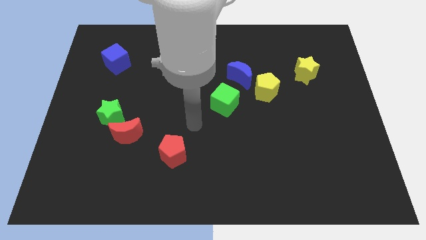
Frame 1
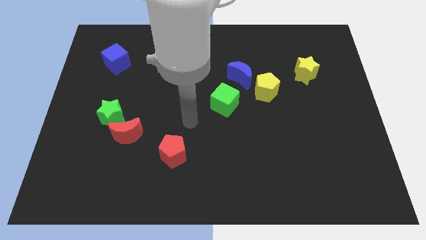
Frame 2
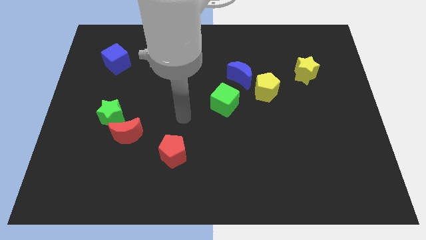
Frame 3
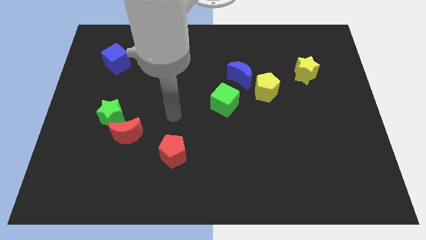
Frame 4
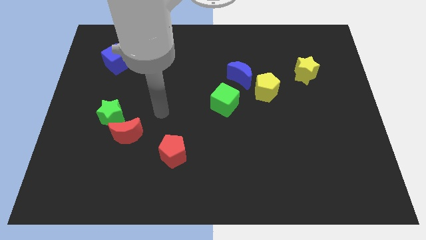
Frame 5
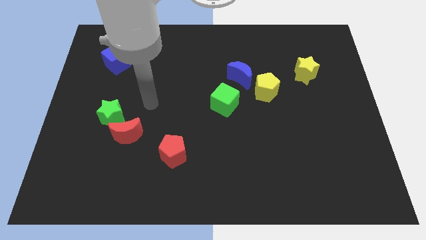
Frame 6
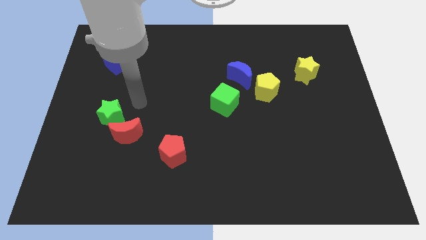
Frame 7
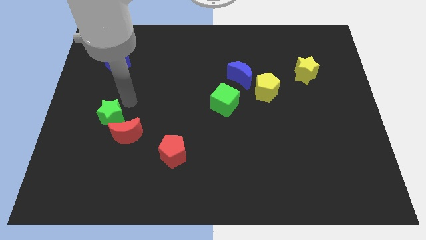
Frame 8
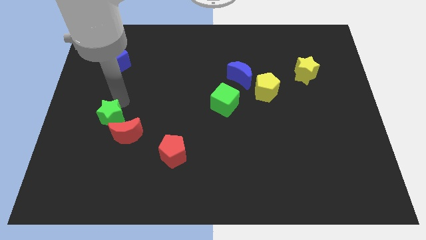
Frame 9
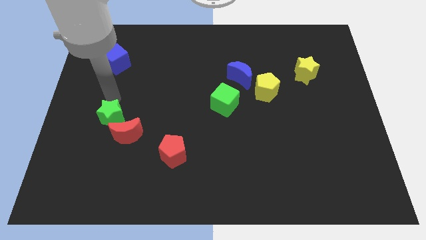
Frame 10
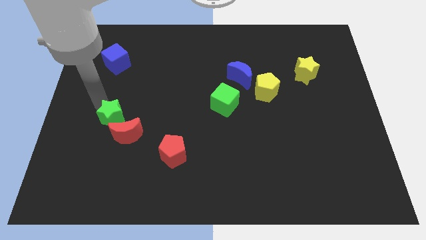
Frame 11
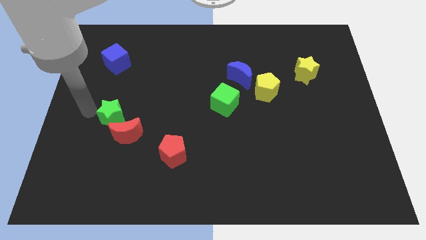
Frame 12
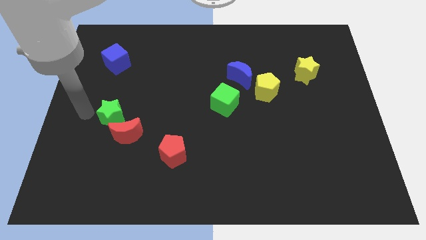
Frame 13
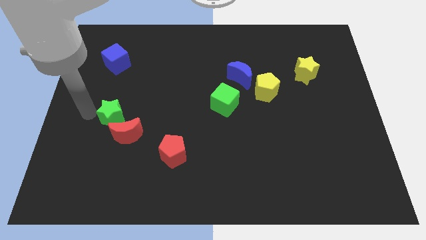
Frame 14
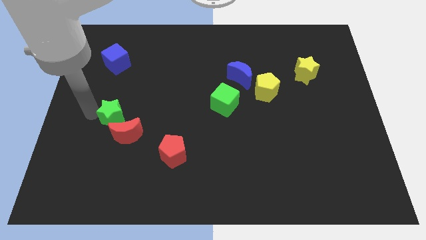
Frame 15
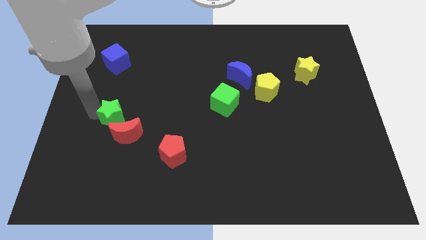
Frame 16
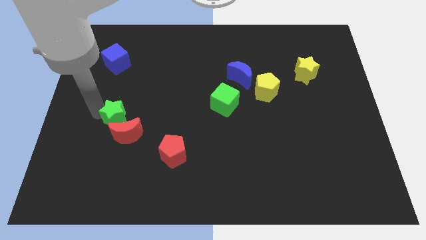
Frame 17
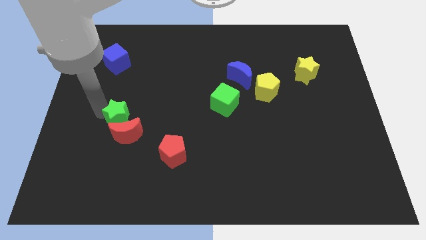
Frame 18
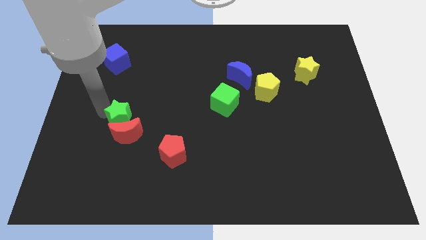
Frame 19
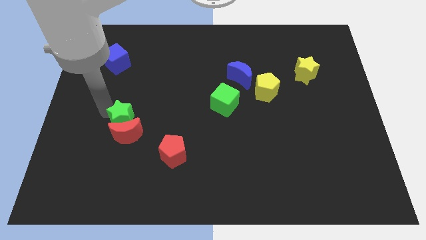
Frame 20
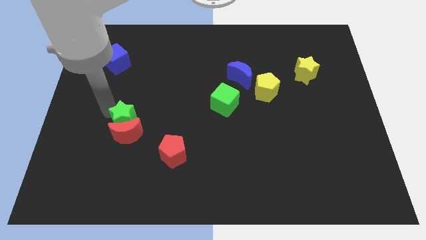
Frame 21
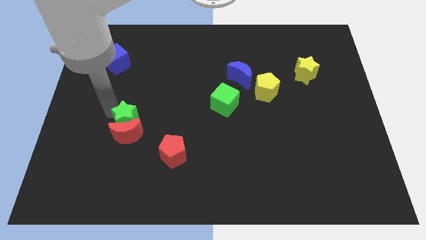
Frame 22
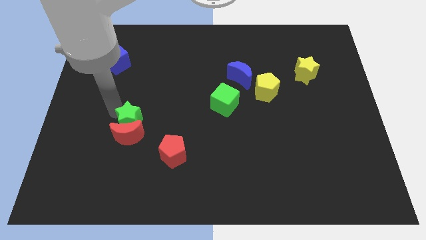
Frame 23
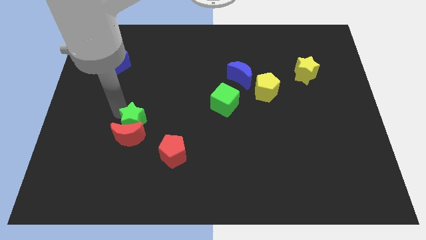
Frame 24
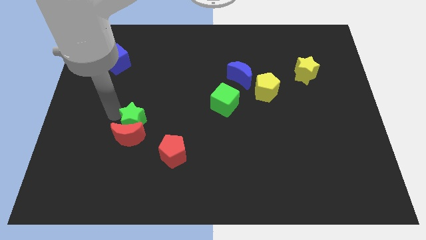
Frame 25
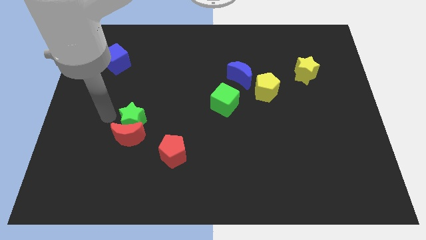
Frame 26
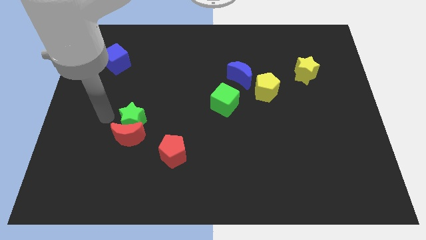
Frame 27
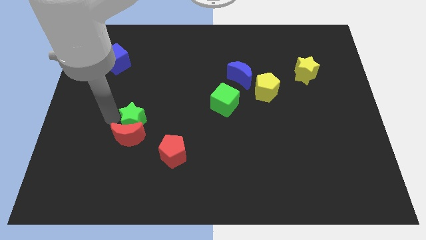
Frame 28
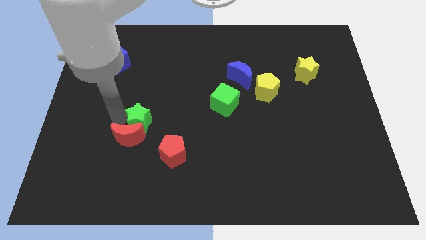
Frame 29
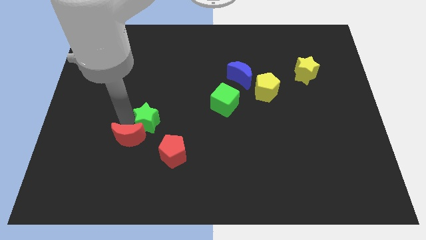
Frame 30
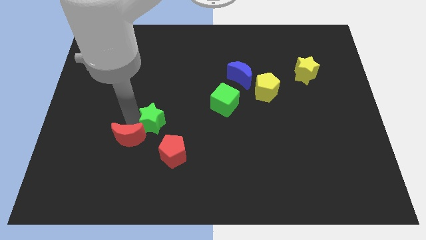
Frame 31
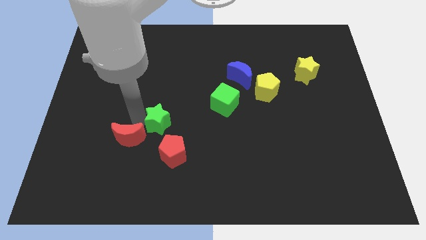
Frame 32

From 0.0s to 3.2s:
slightly slide the green star downwards and right

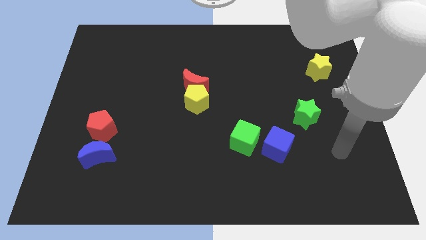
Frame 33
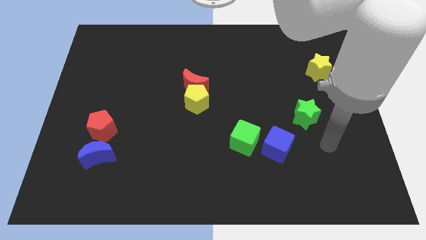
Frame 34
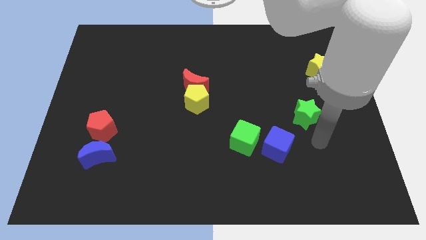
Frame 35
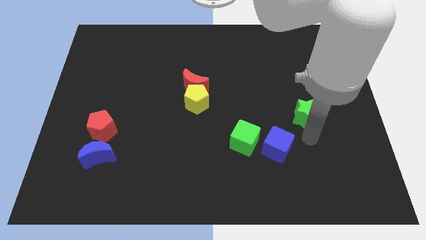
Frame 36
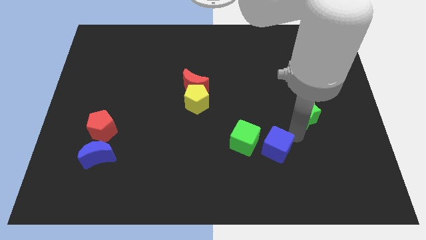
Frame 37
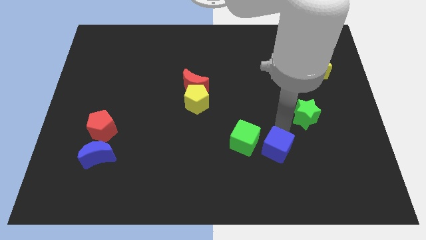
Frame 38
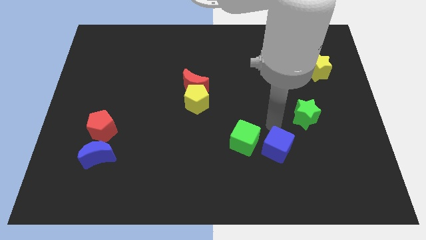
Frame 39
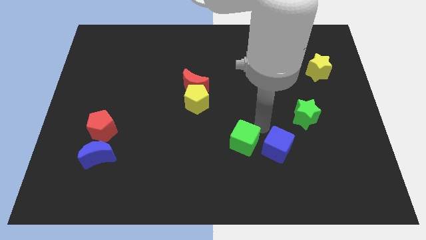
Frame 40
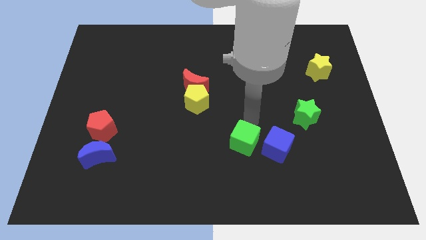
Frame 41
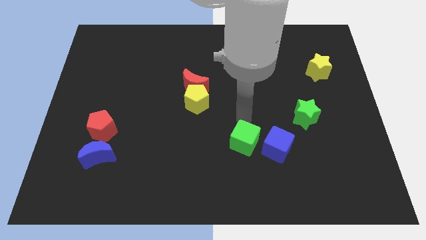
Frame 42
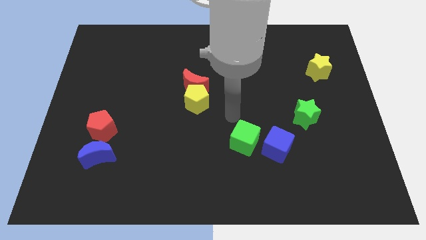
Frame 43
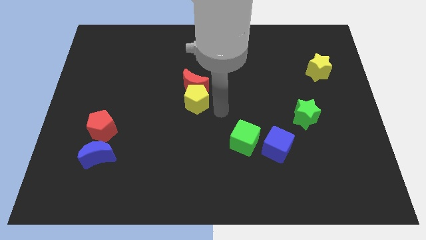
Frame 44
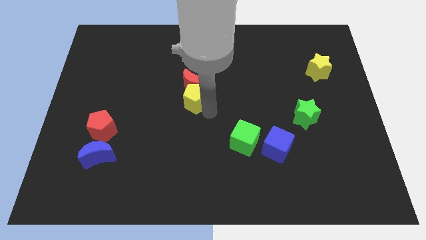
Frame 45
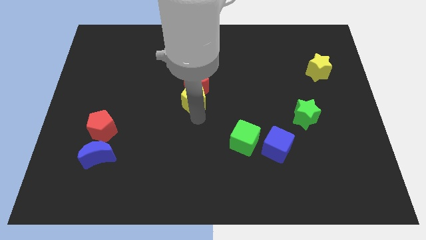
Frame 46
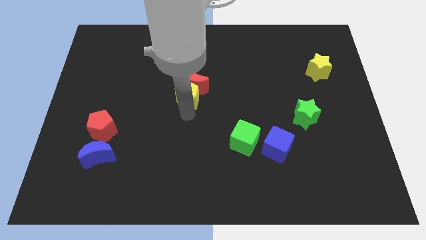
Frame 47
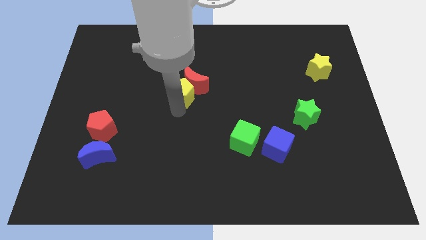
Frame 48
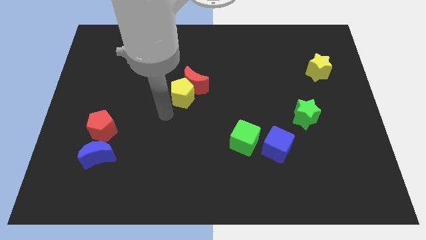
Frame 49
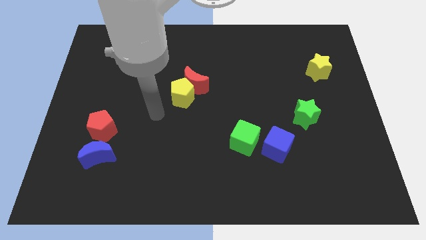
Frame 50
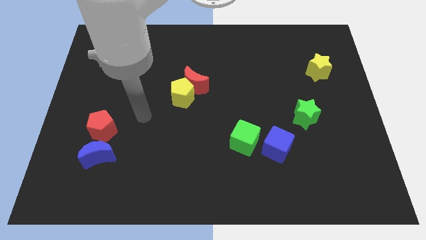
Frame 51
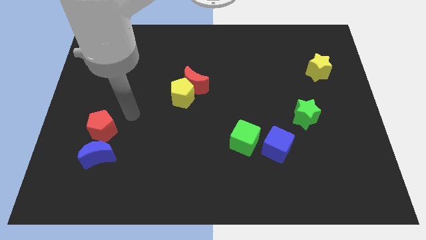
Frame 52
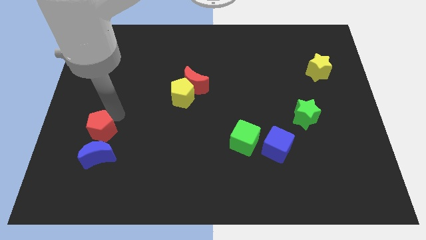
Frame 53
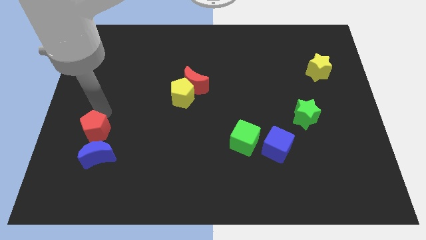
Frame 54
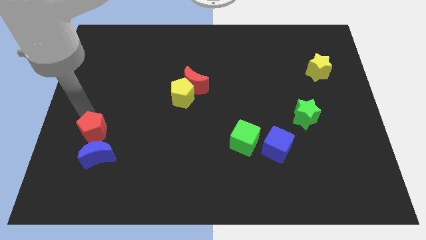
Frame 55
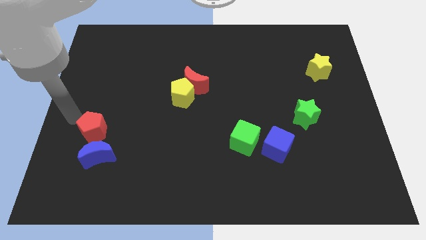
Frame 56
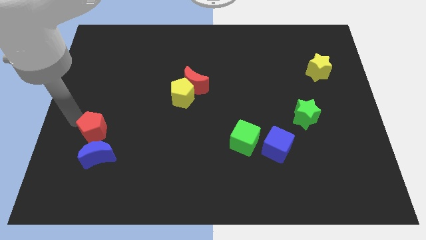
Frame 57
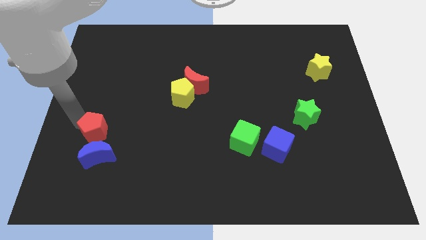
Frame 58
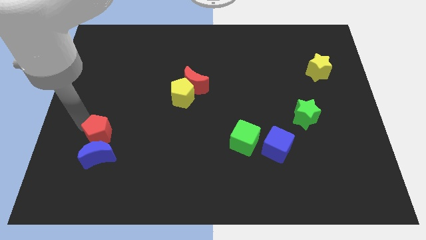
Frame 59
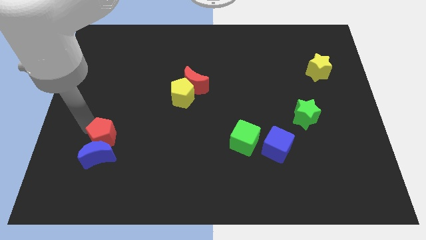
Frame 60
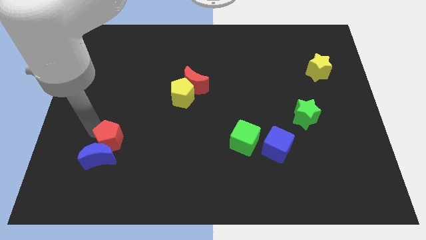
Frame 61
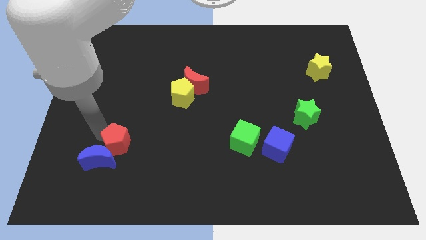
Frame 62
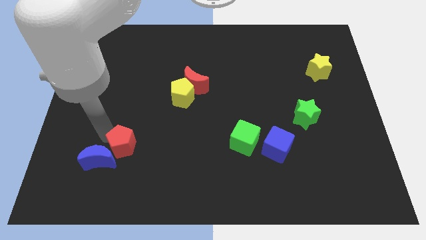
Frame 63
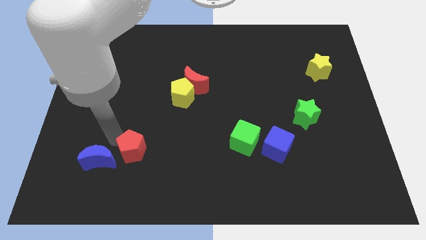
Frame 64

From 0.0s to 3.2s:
slide the red pentagon diagonally down and to the right a little bit

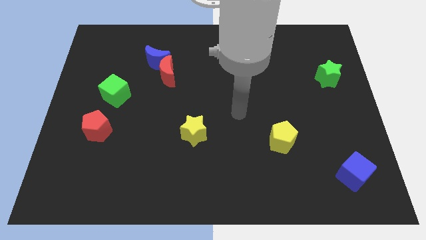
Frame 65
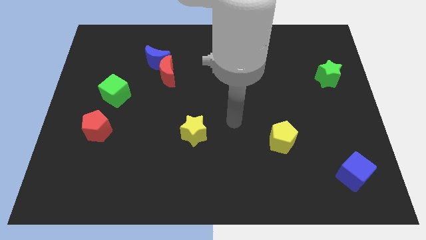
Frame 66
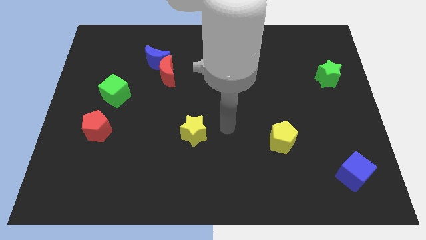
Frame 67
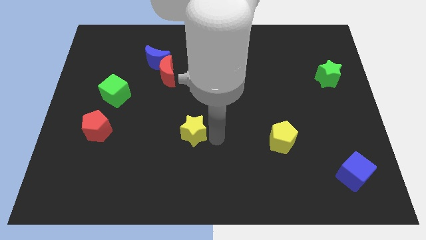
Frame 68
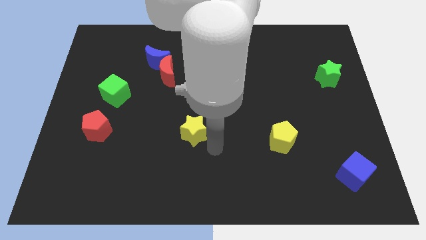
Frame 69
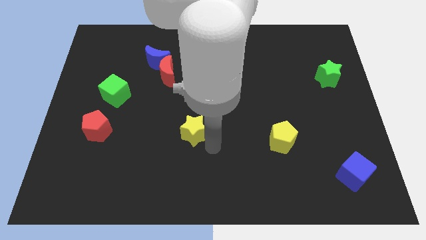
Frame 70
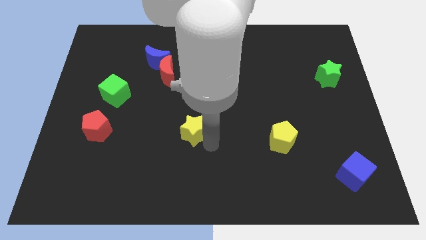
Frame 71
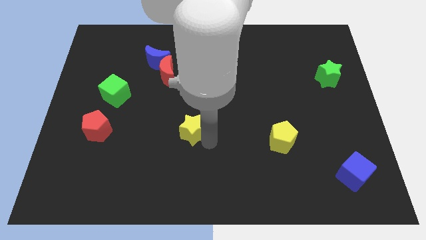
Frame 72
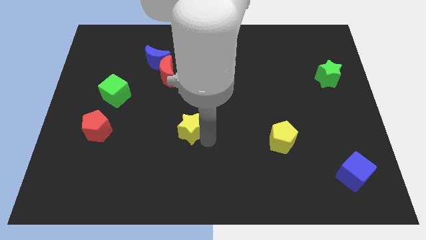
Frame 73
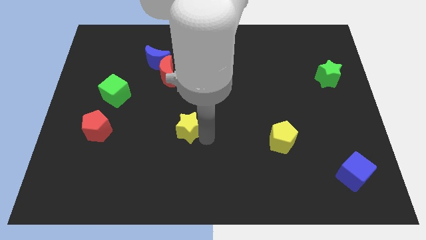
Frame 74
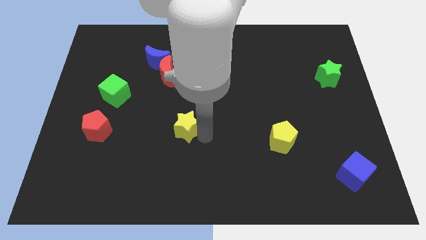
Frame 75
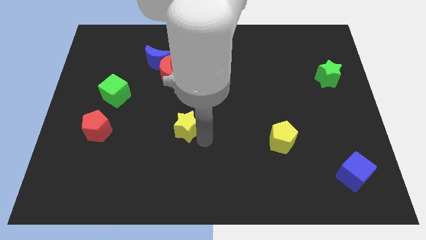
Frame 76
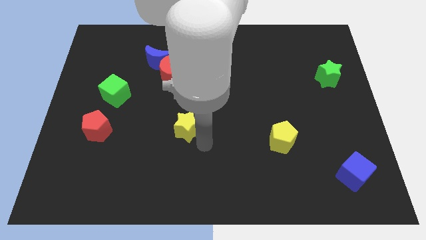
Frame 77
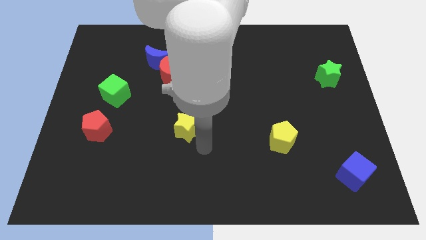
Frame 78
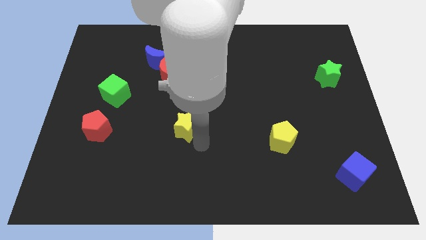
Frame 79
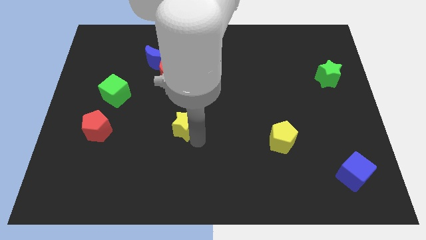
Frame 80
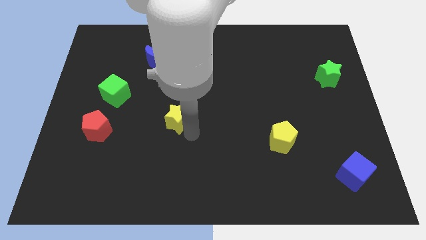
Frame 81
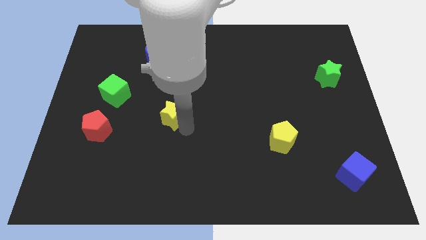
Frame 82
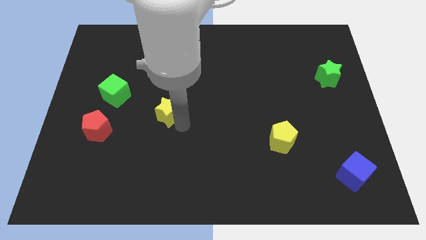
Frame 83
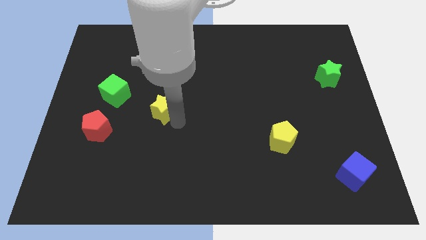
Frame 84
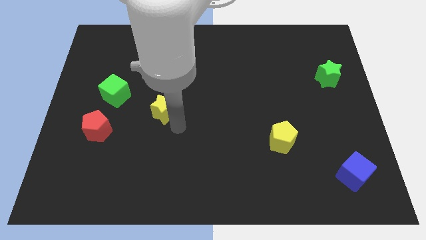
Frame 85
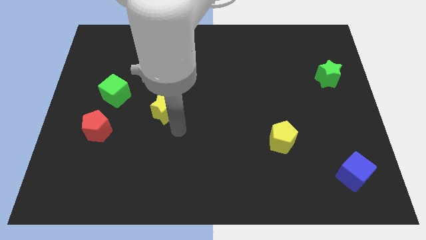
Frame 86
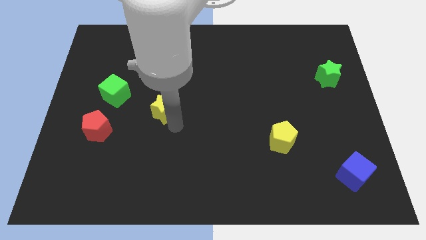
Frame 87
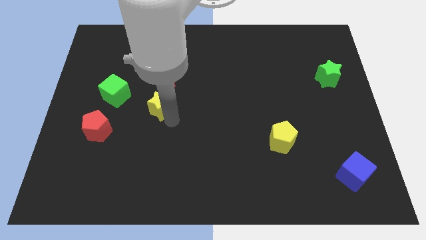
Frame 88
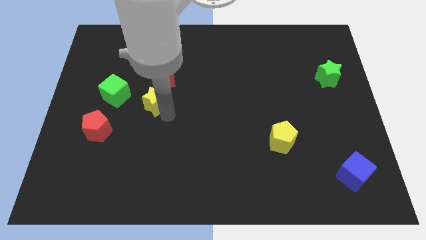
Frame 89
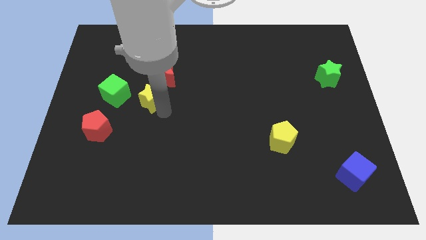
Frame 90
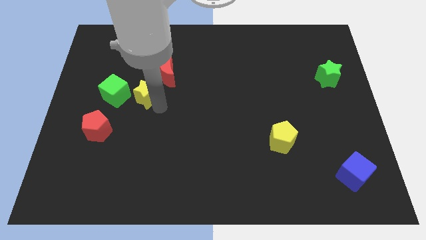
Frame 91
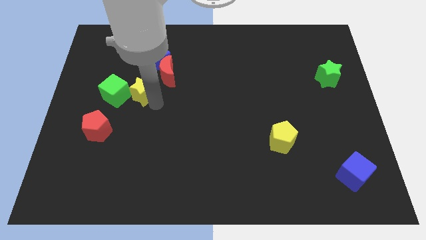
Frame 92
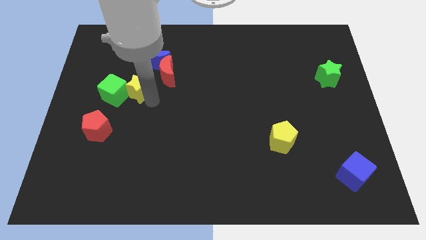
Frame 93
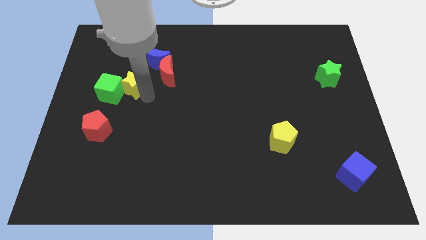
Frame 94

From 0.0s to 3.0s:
slide the yellow star upwards and then to the left
